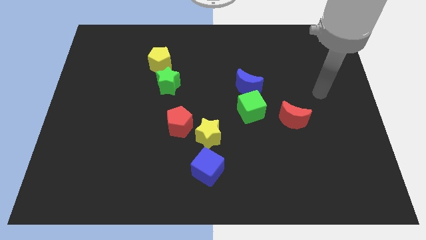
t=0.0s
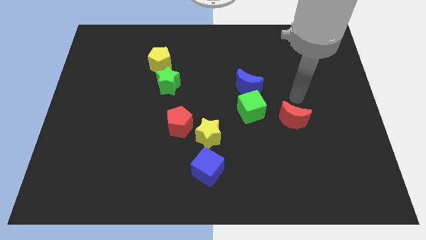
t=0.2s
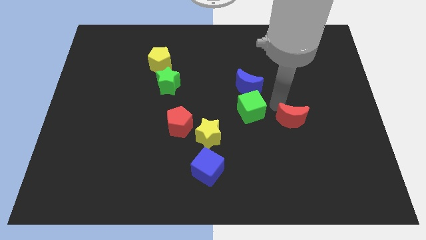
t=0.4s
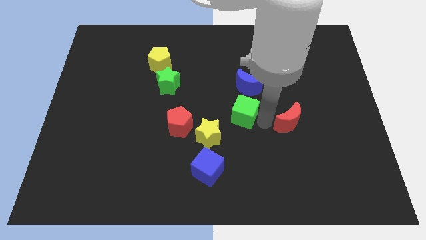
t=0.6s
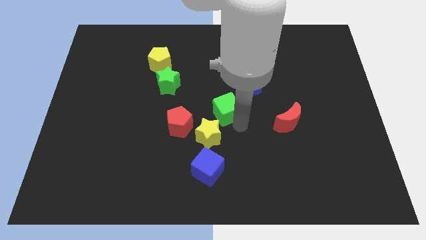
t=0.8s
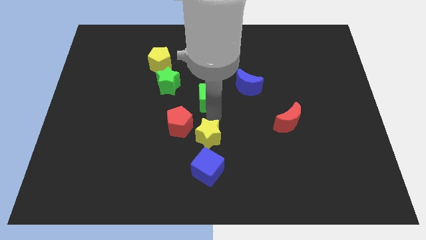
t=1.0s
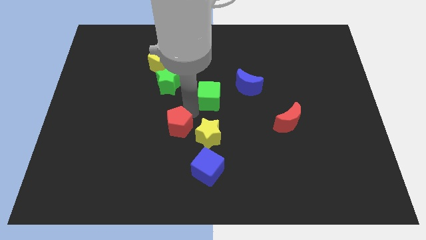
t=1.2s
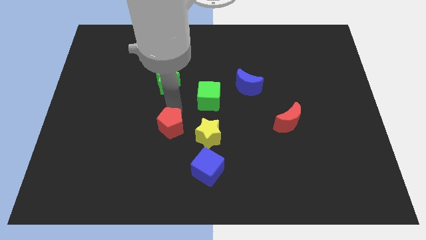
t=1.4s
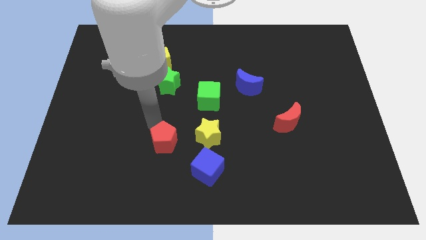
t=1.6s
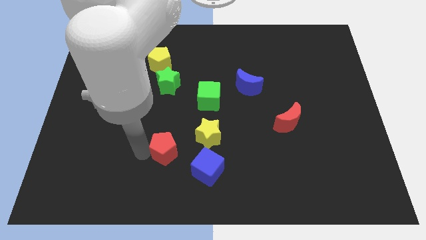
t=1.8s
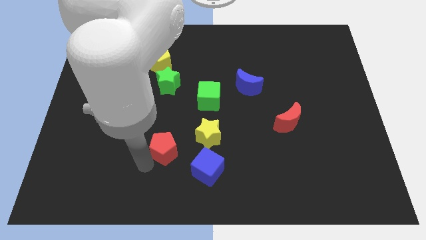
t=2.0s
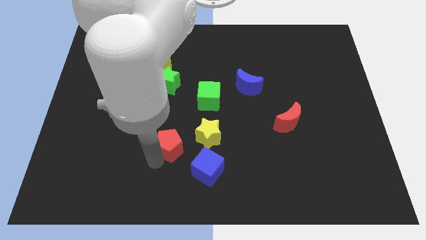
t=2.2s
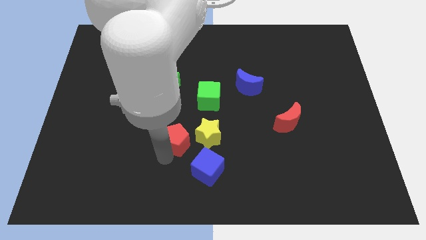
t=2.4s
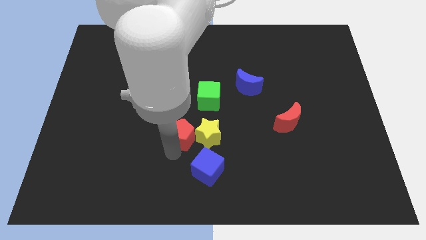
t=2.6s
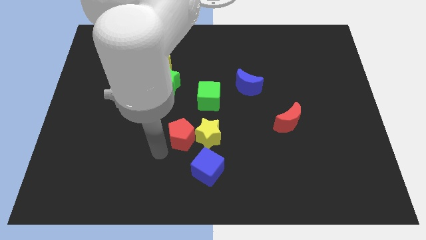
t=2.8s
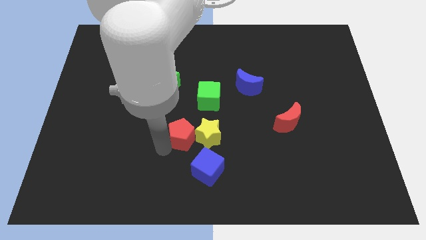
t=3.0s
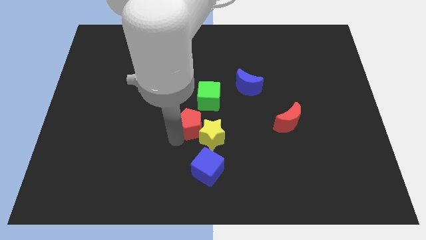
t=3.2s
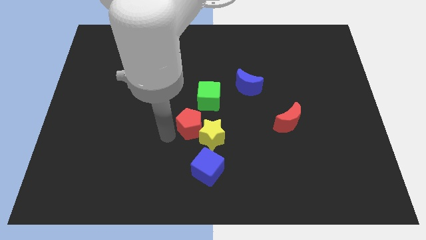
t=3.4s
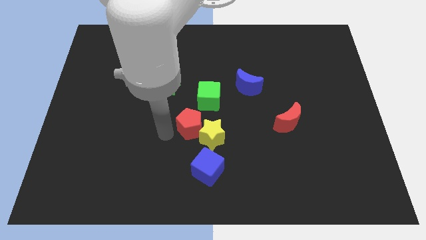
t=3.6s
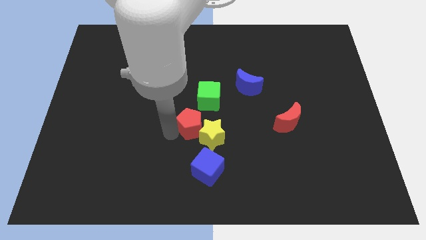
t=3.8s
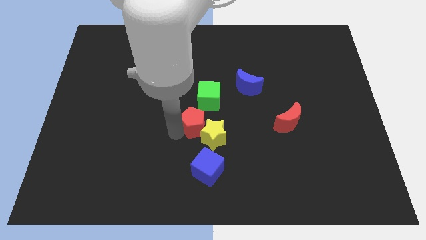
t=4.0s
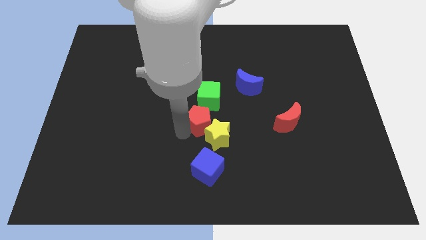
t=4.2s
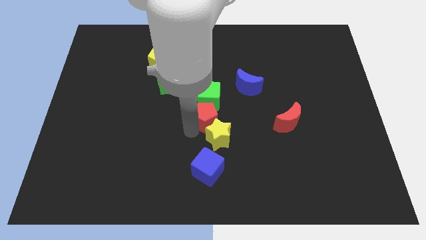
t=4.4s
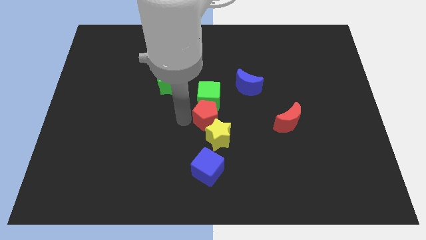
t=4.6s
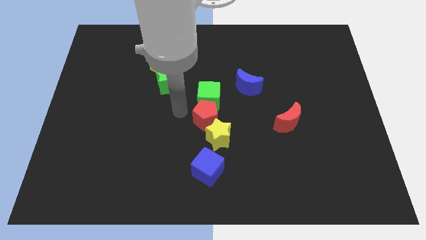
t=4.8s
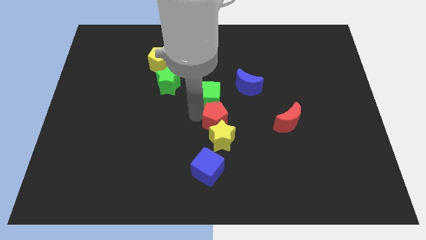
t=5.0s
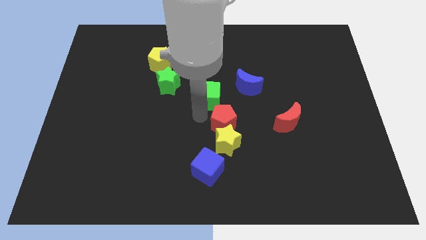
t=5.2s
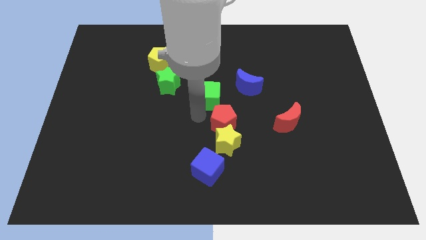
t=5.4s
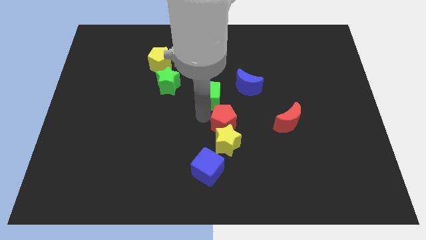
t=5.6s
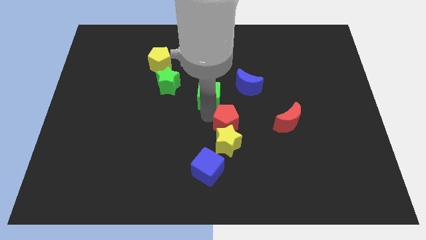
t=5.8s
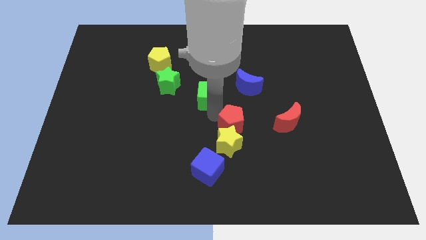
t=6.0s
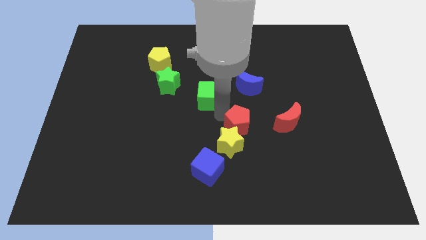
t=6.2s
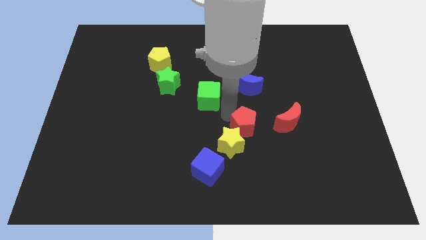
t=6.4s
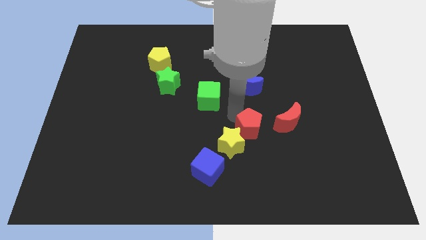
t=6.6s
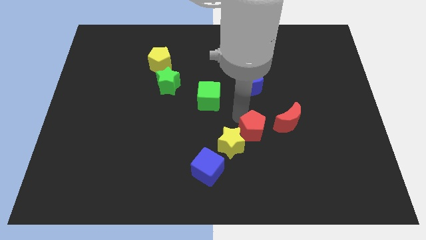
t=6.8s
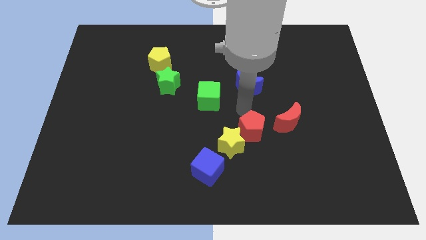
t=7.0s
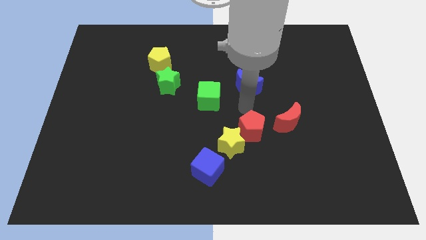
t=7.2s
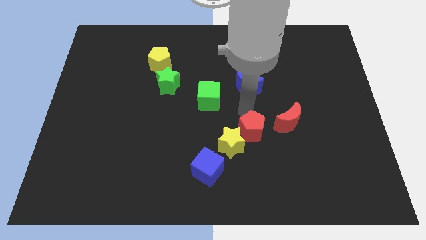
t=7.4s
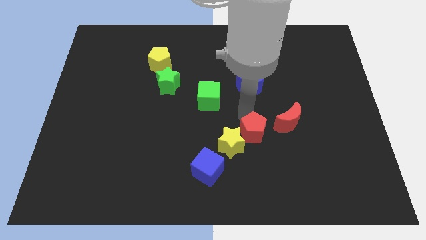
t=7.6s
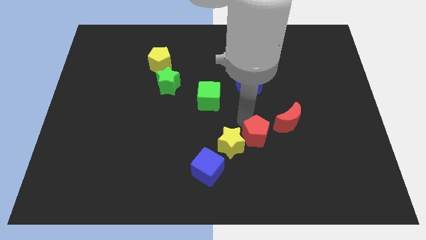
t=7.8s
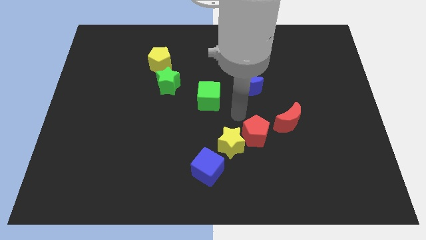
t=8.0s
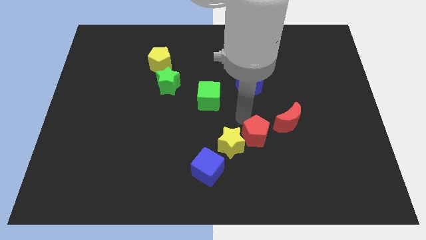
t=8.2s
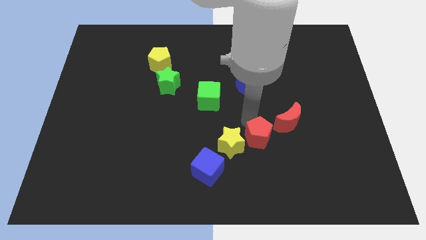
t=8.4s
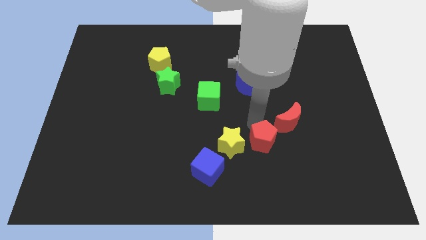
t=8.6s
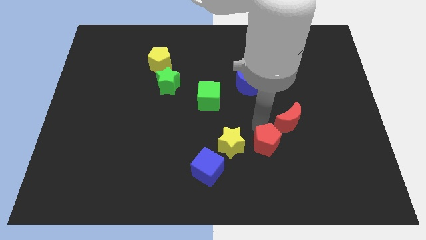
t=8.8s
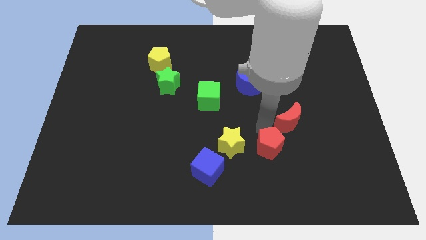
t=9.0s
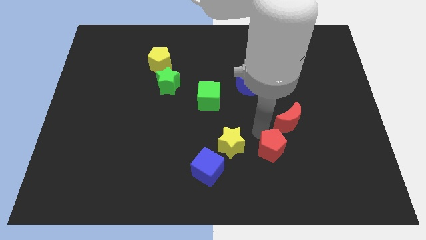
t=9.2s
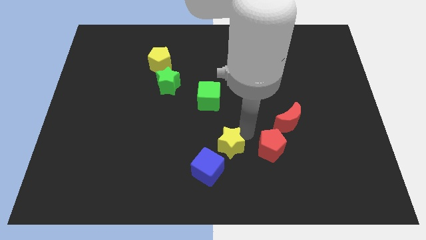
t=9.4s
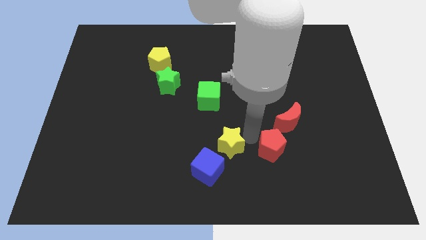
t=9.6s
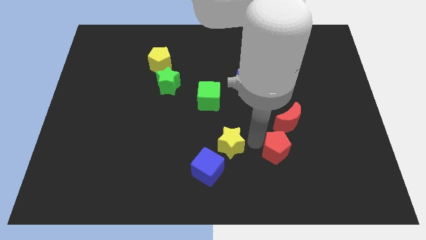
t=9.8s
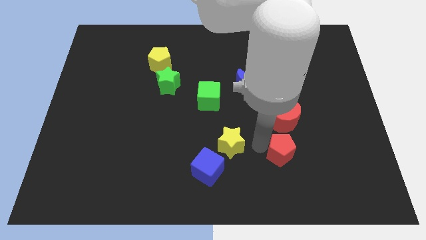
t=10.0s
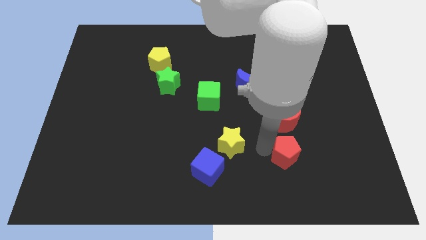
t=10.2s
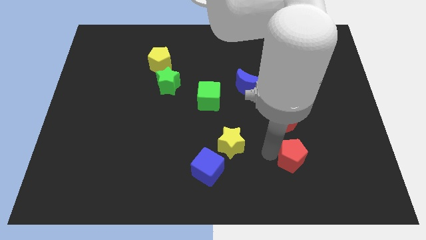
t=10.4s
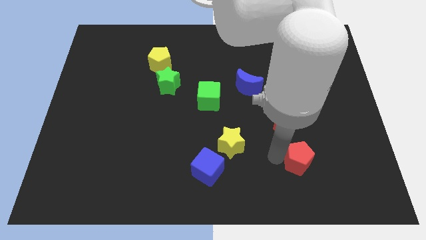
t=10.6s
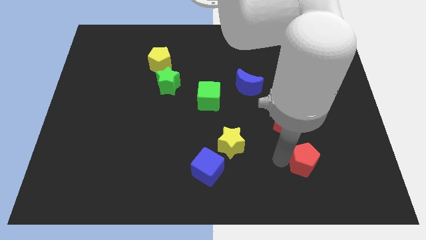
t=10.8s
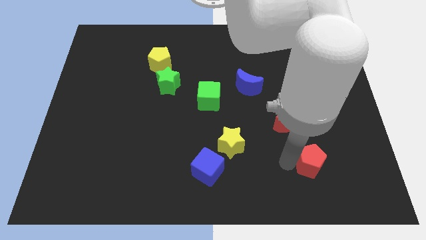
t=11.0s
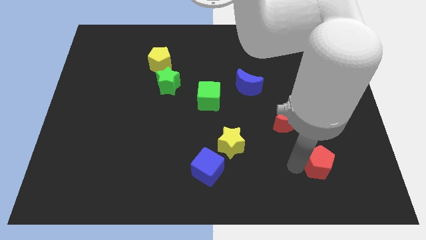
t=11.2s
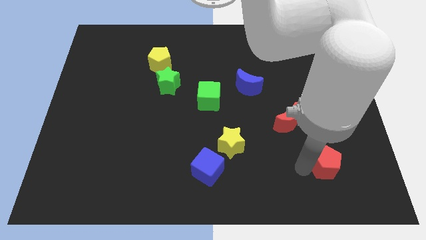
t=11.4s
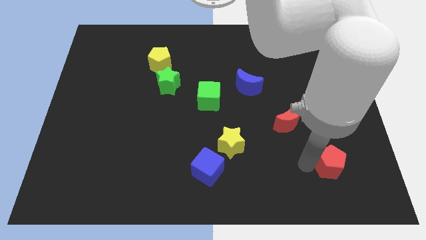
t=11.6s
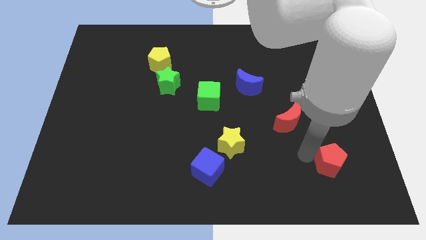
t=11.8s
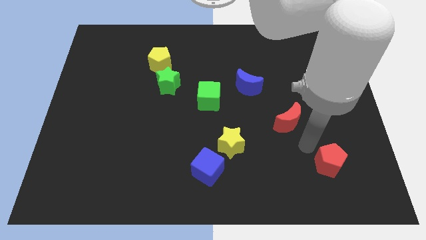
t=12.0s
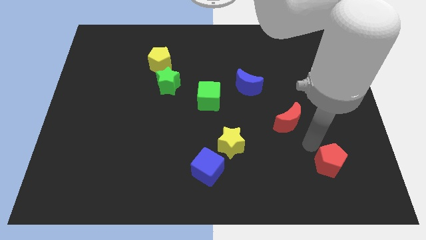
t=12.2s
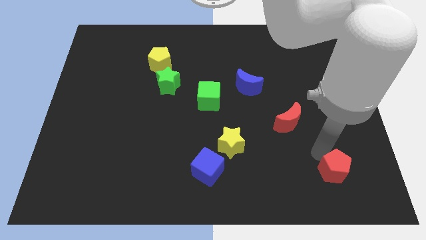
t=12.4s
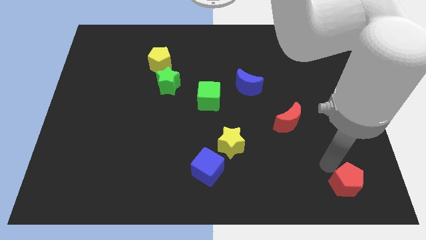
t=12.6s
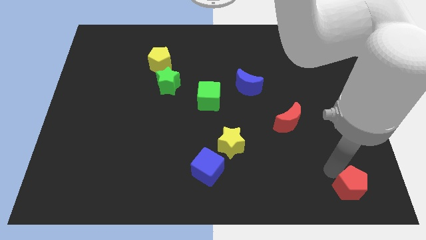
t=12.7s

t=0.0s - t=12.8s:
move the red pentagon to the bottom right

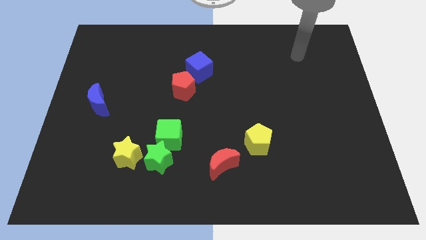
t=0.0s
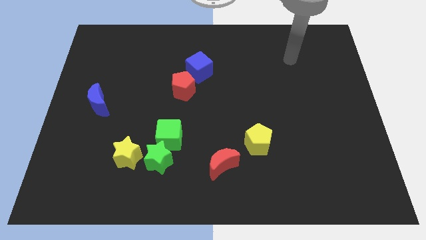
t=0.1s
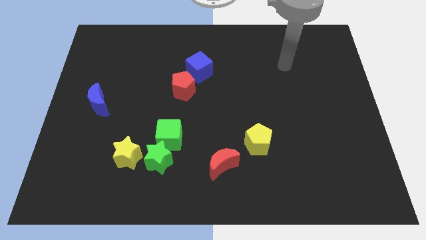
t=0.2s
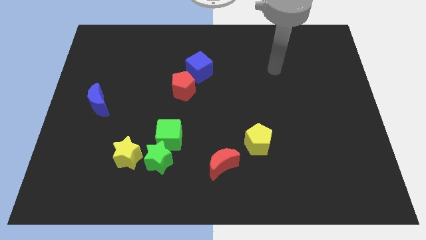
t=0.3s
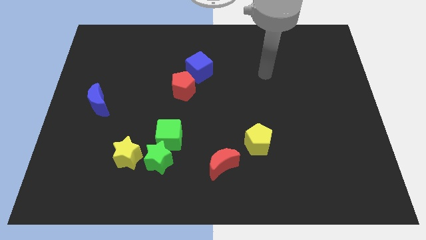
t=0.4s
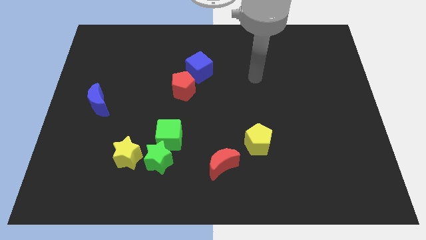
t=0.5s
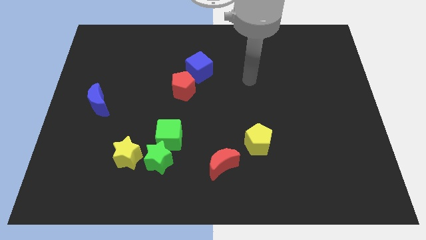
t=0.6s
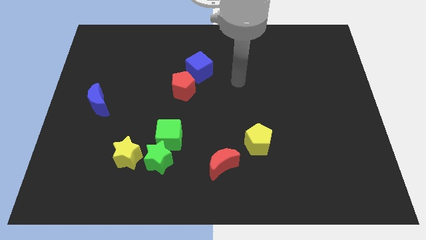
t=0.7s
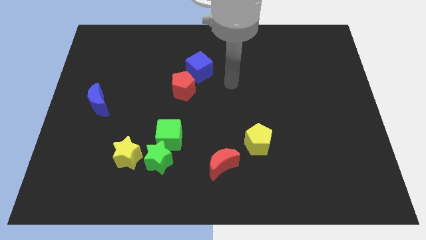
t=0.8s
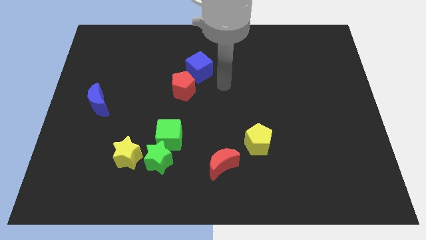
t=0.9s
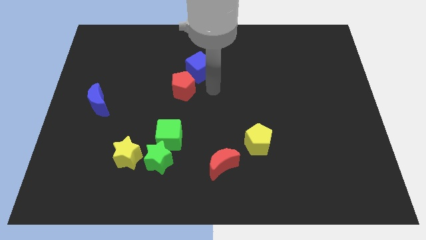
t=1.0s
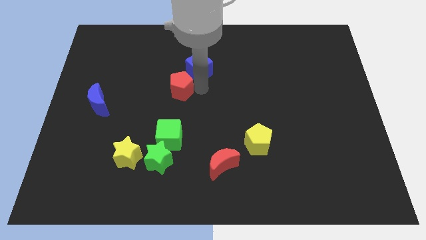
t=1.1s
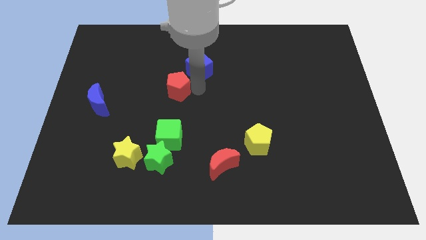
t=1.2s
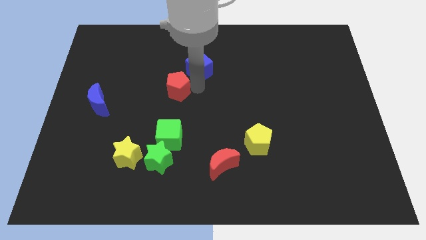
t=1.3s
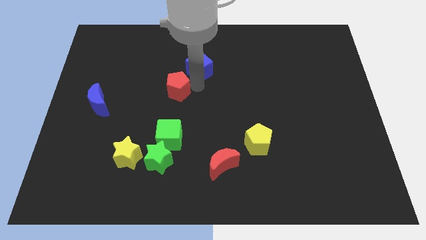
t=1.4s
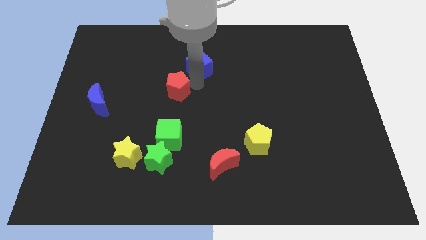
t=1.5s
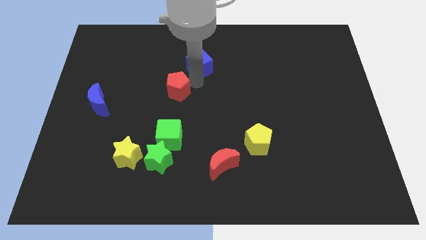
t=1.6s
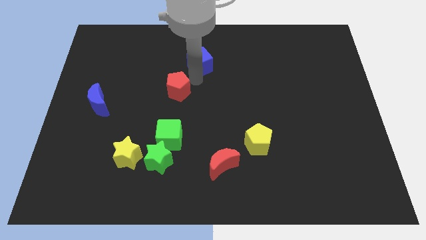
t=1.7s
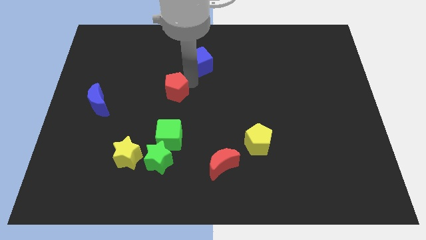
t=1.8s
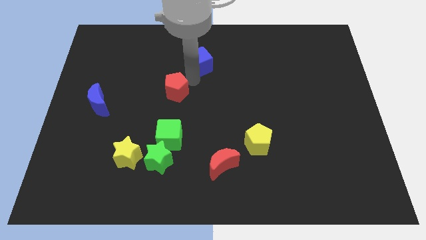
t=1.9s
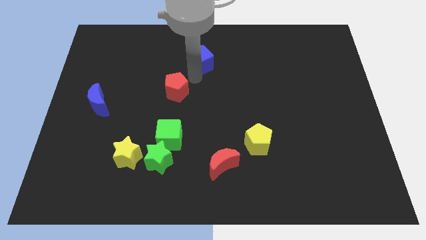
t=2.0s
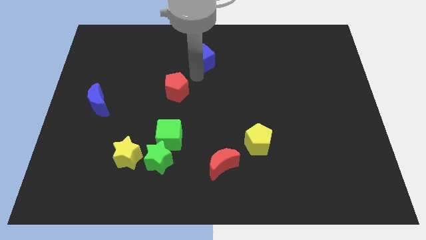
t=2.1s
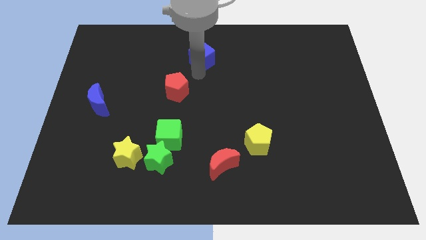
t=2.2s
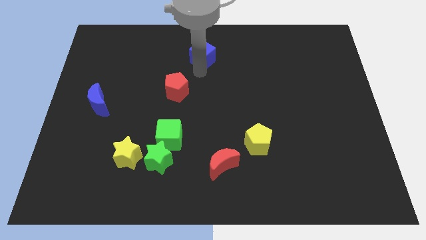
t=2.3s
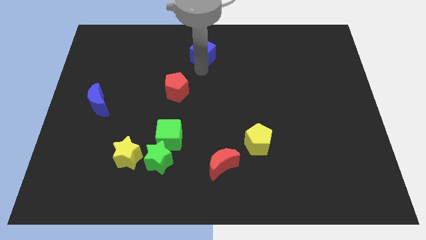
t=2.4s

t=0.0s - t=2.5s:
push the blue cube to the towards your base
